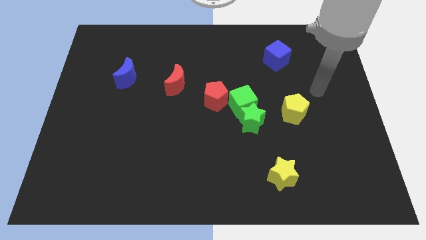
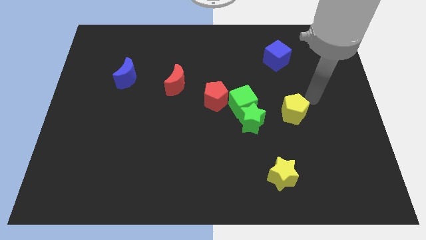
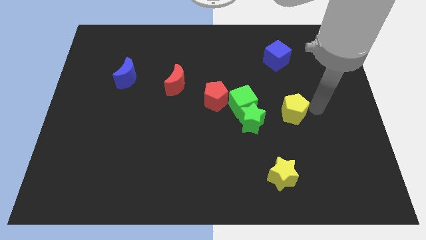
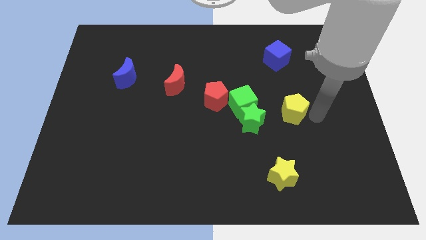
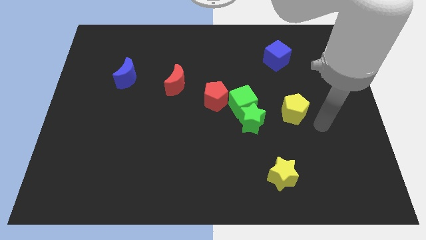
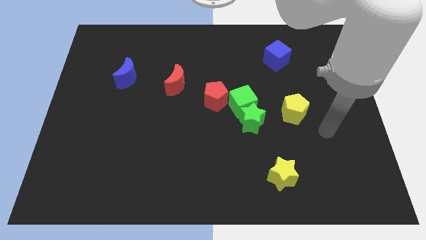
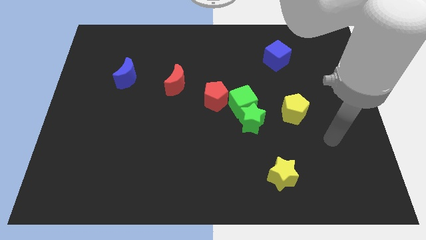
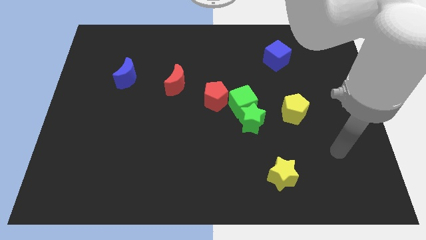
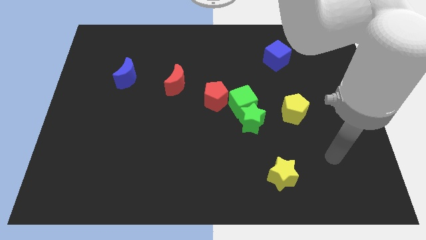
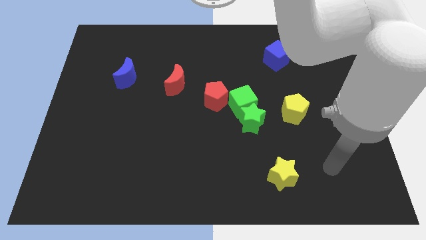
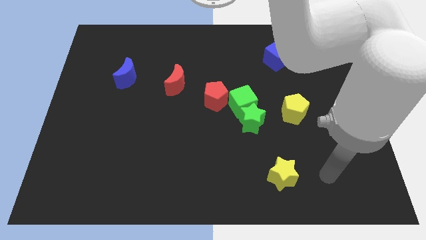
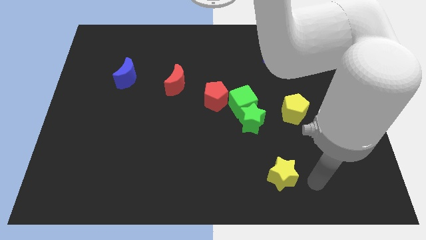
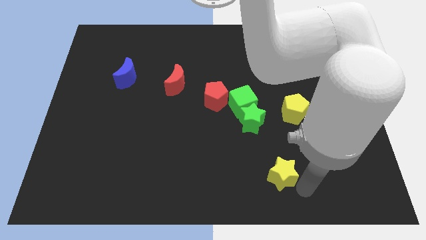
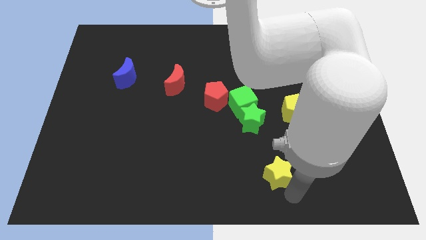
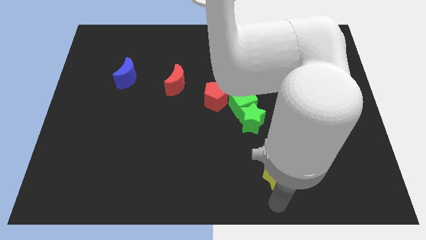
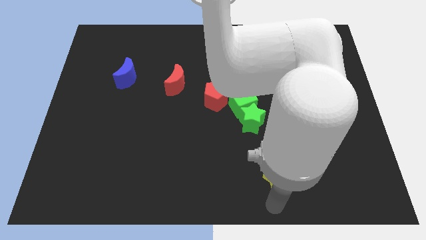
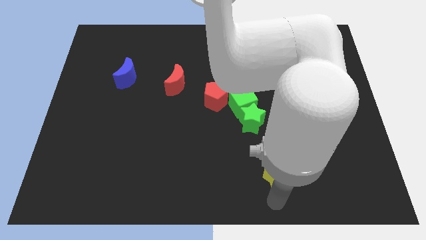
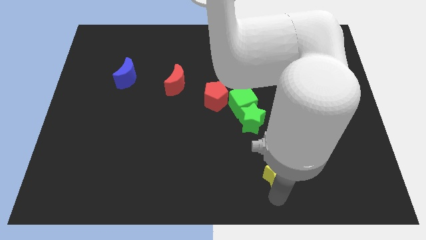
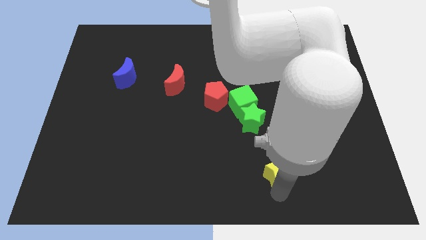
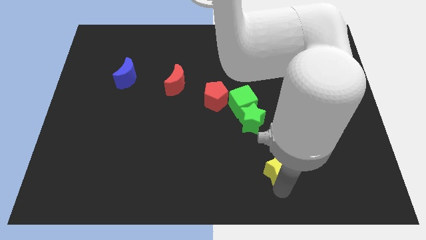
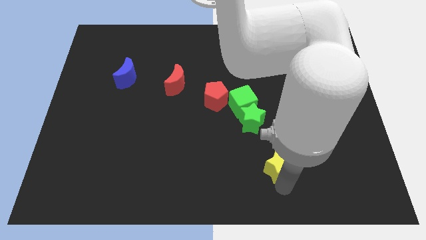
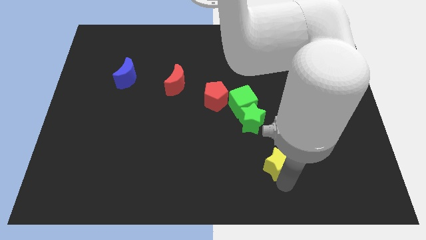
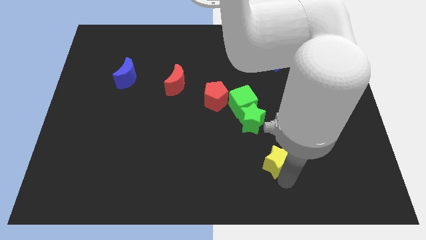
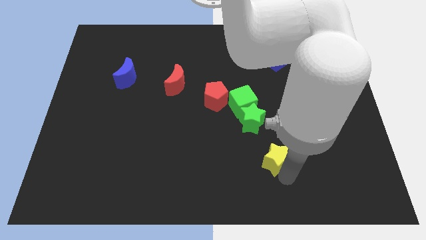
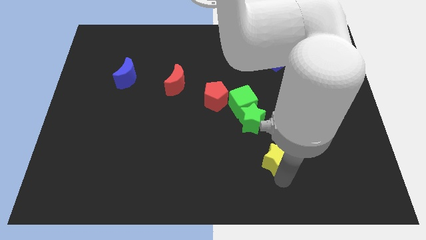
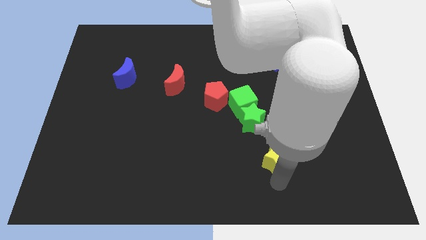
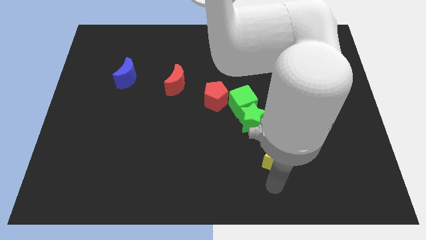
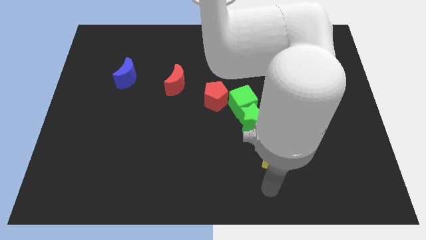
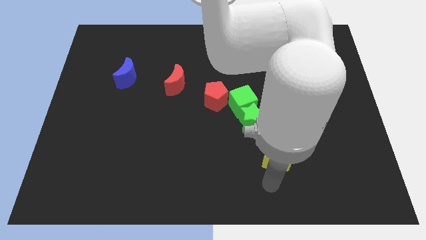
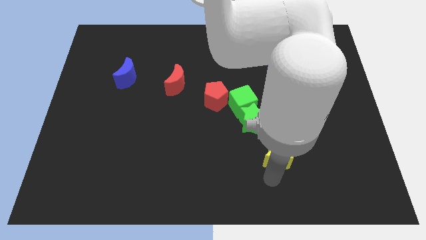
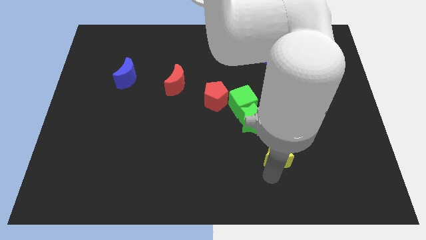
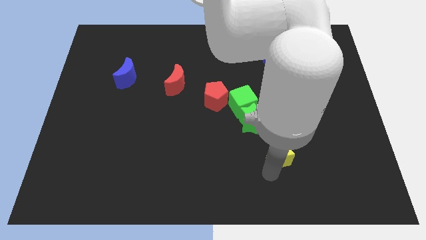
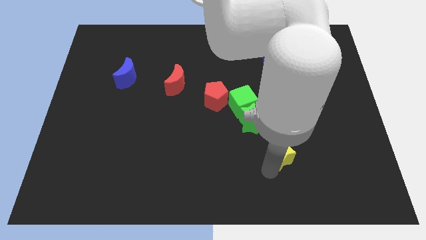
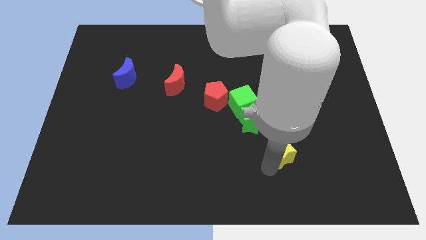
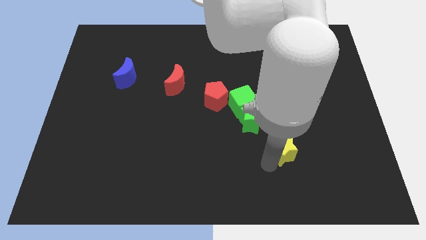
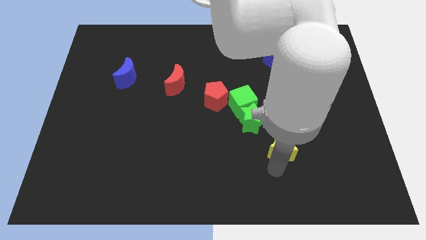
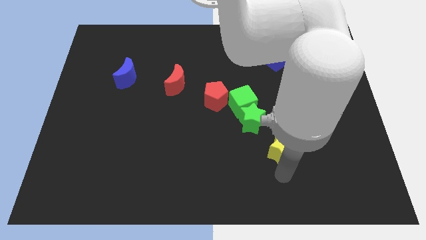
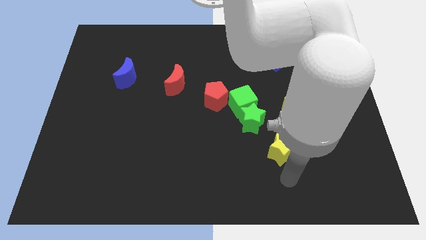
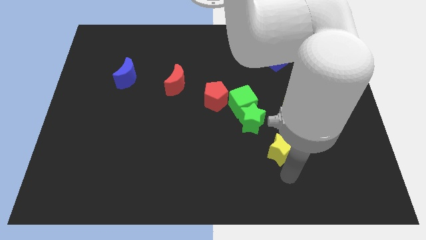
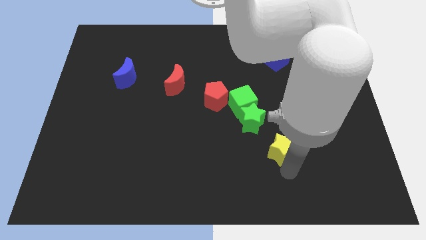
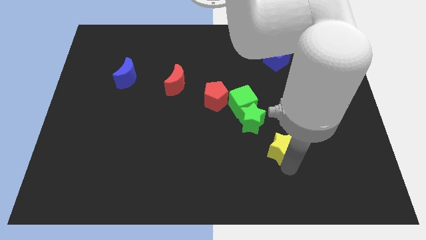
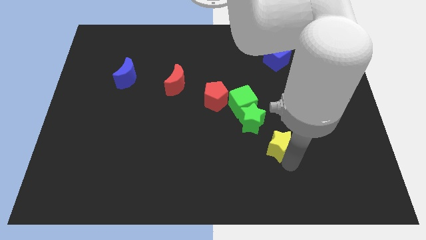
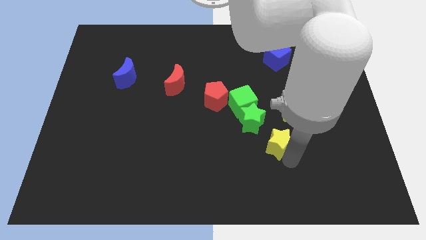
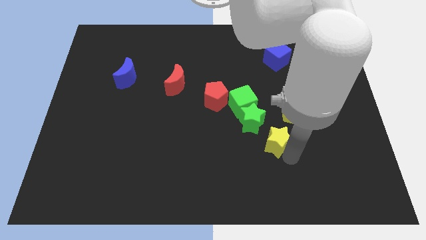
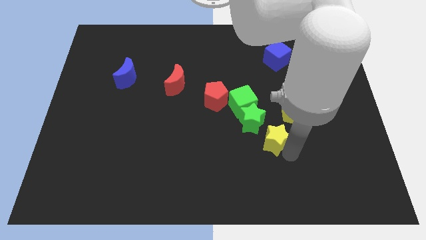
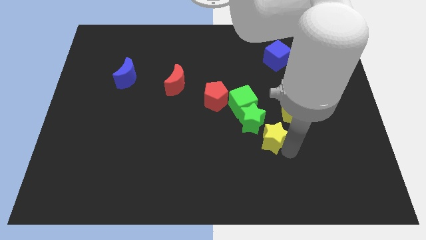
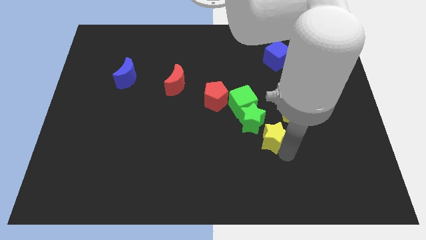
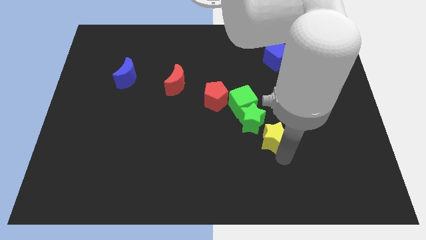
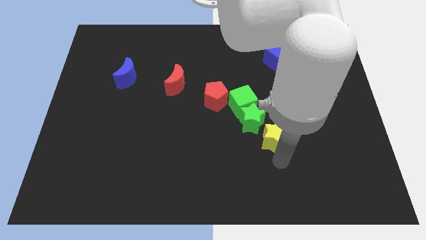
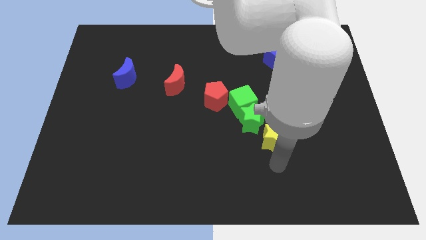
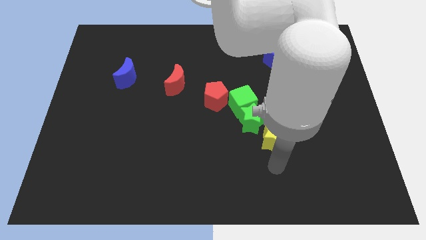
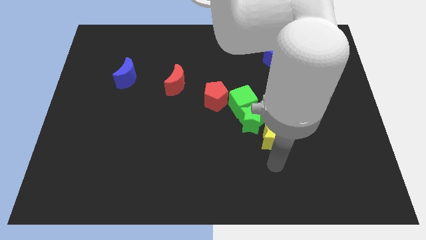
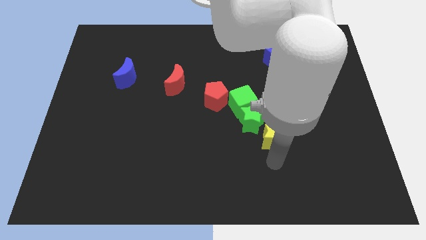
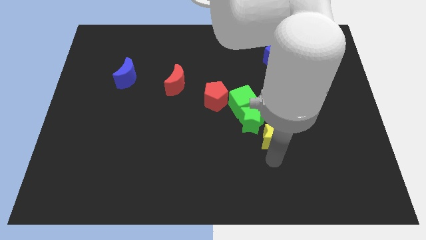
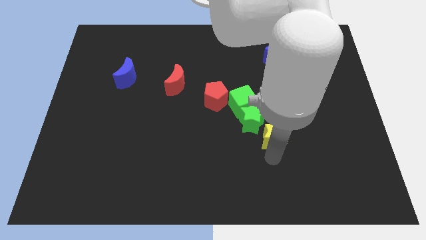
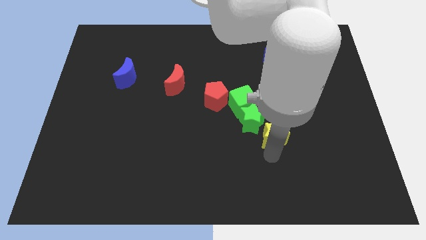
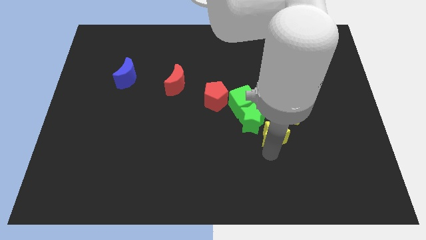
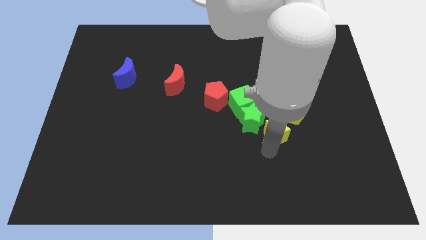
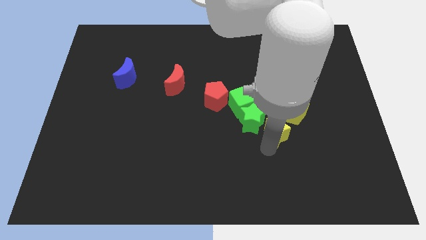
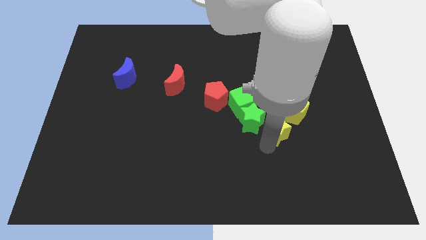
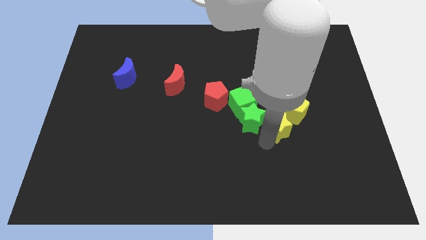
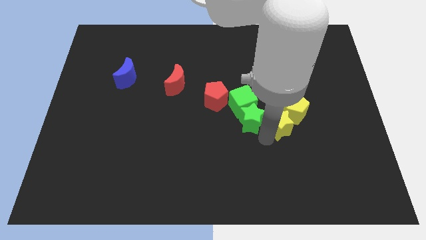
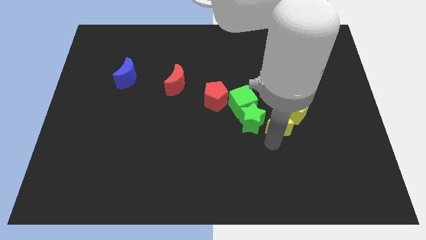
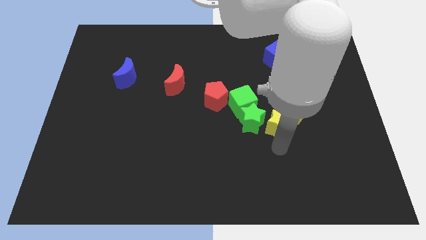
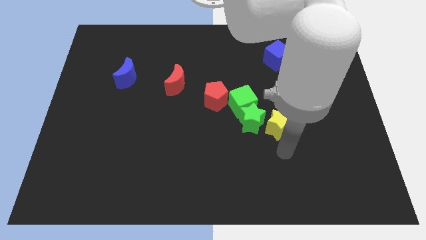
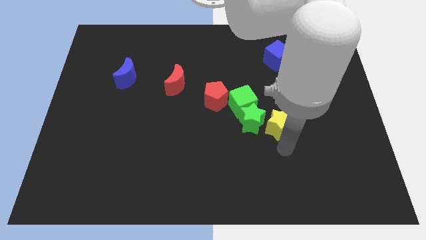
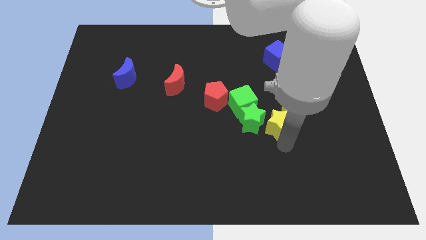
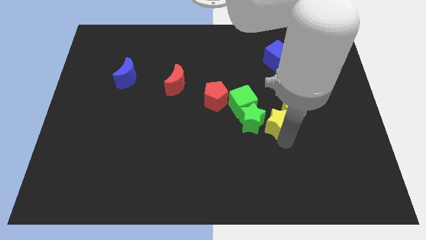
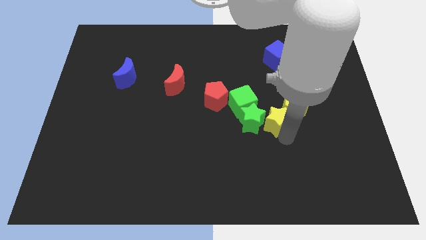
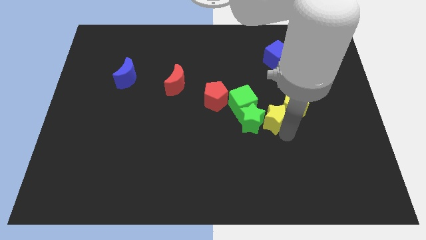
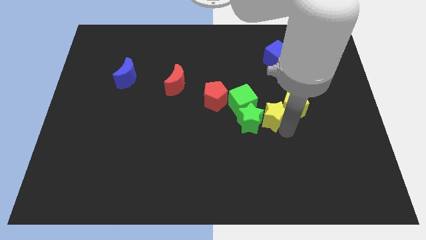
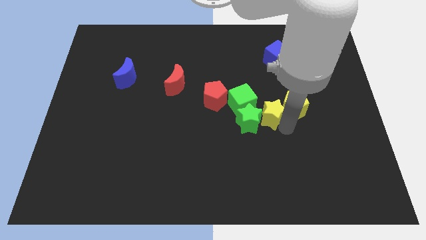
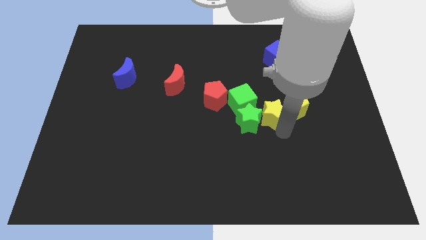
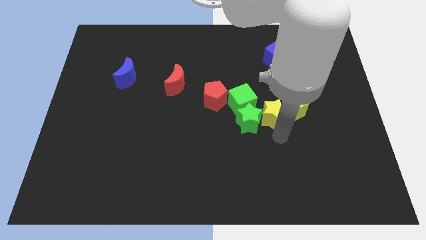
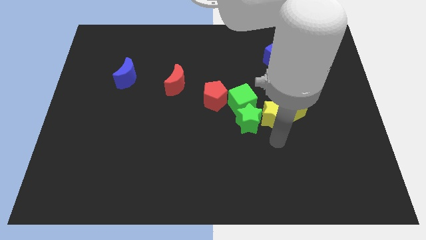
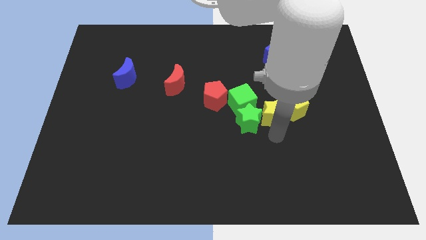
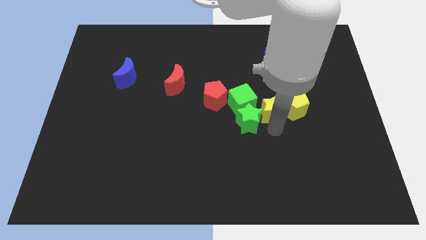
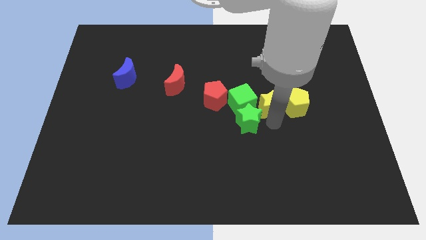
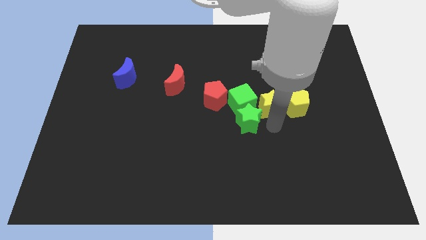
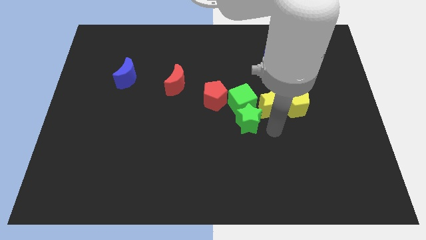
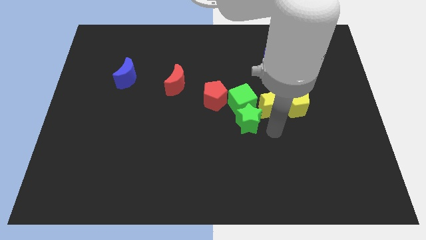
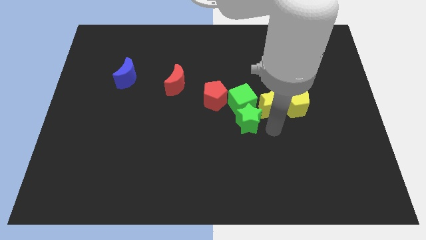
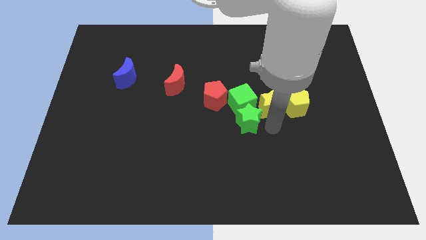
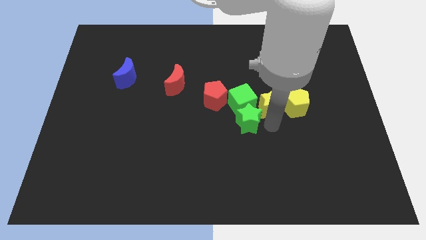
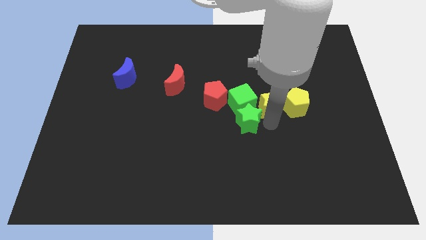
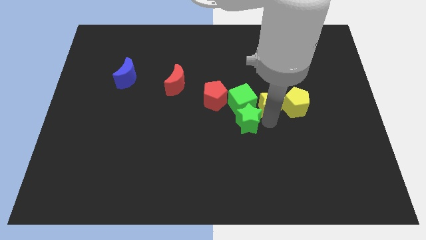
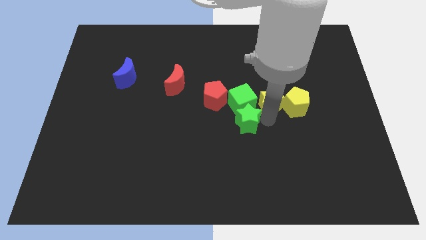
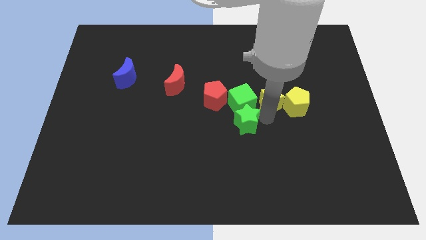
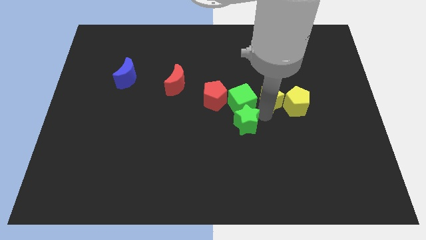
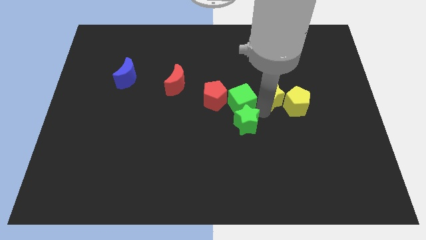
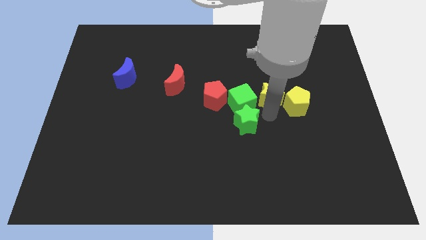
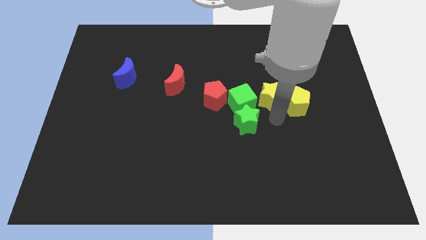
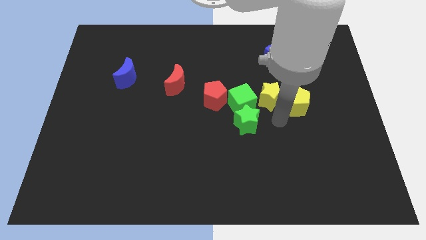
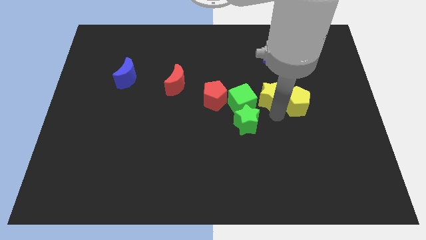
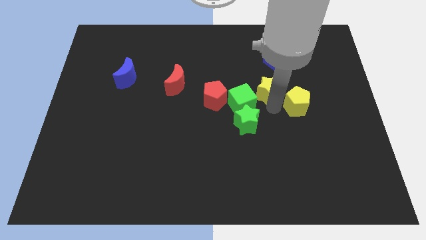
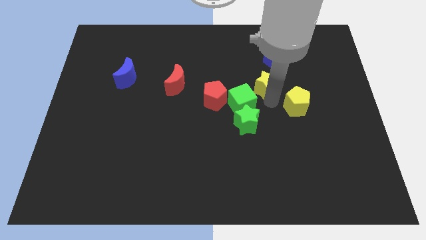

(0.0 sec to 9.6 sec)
put the yellow star to the bottom left side of the blue cube
